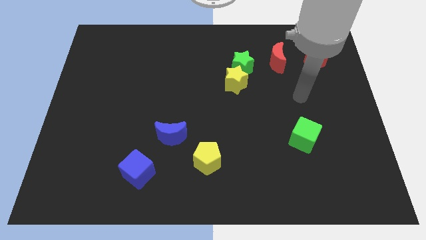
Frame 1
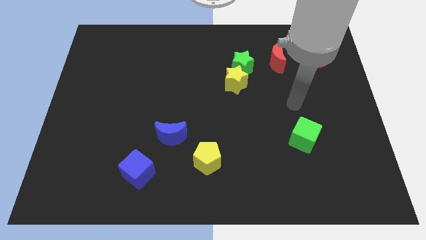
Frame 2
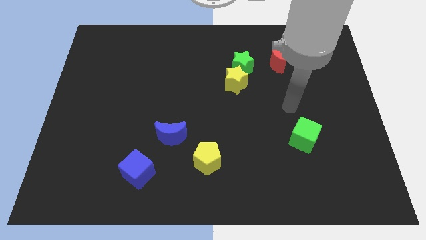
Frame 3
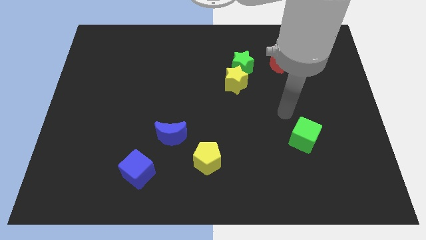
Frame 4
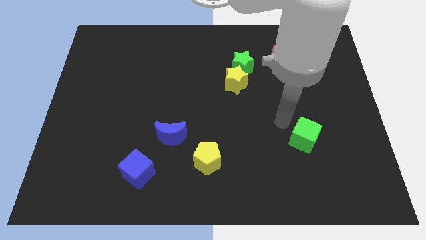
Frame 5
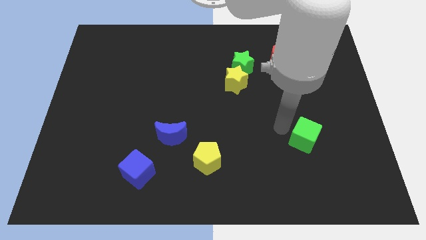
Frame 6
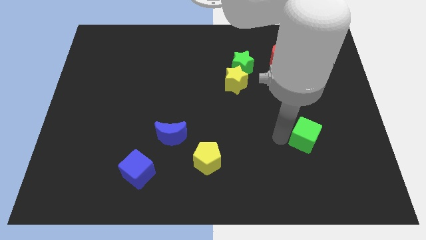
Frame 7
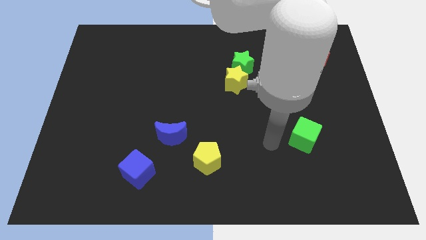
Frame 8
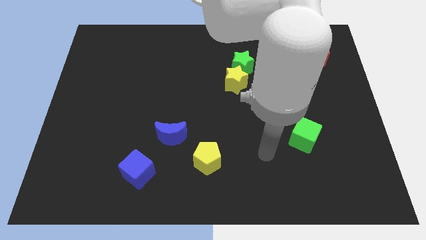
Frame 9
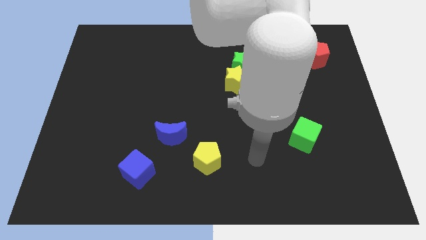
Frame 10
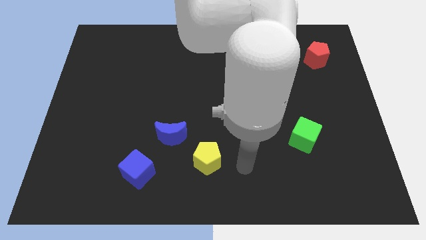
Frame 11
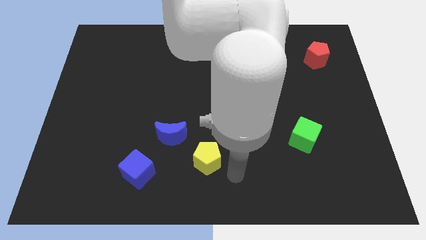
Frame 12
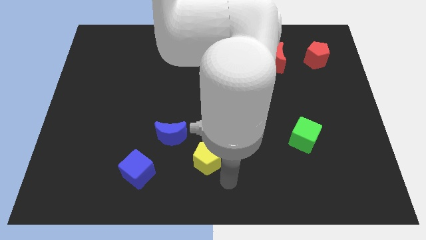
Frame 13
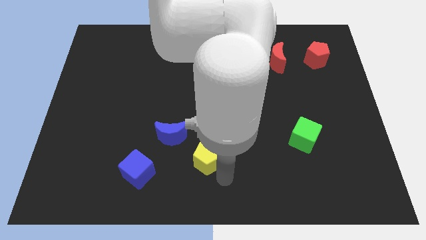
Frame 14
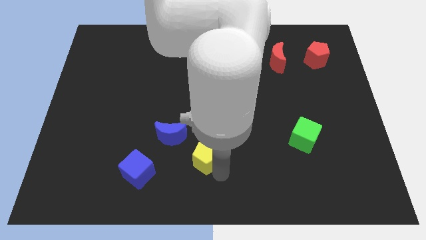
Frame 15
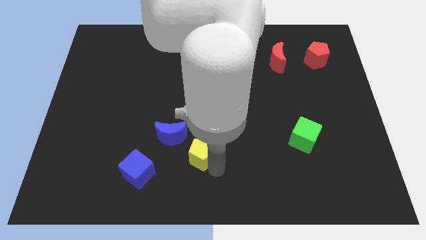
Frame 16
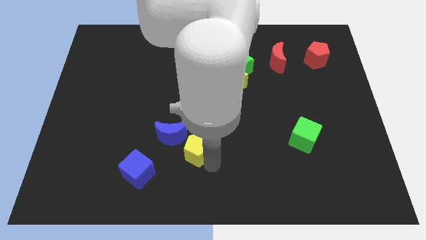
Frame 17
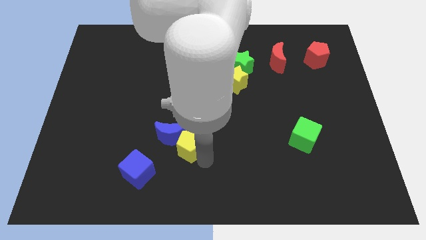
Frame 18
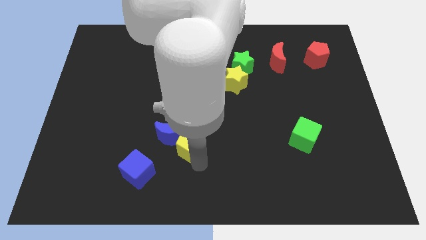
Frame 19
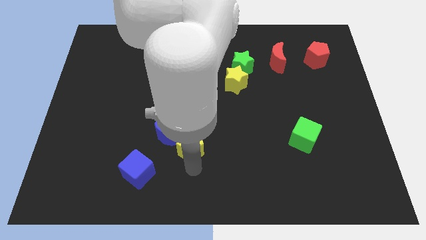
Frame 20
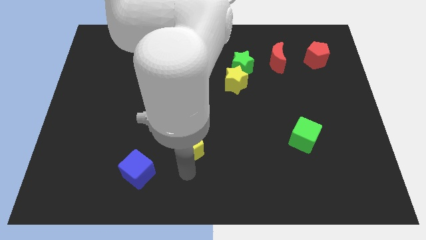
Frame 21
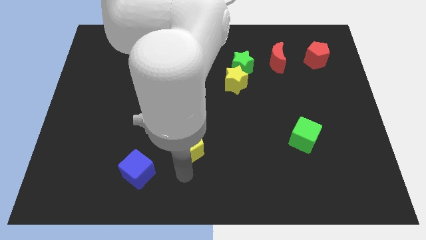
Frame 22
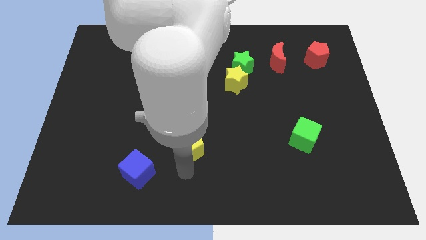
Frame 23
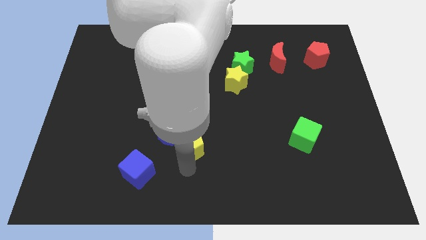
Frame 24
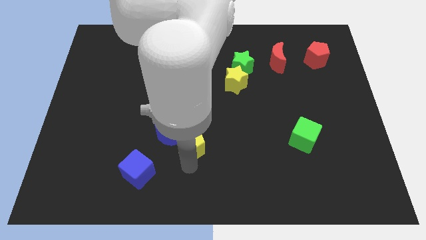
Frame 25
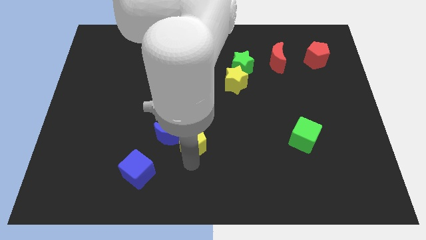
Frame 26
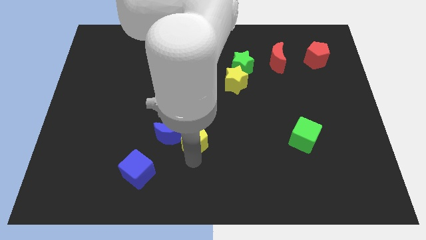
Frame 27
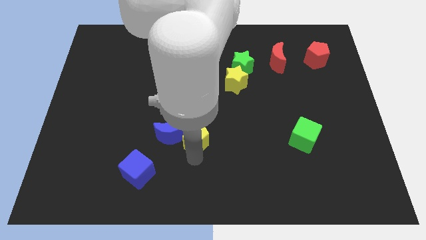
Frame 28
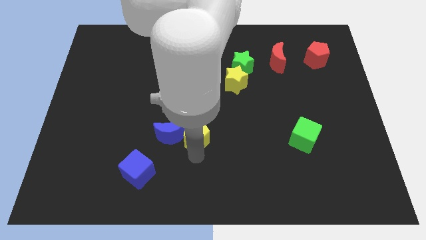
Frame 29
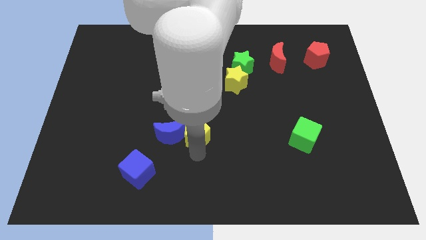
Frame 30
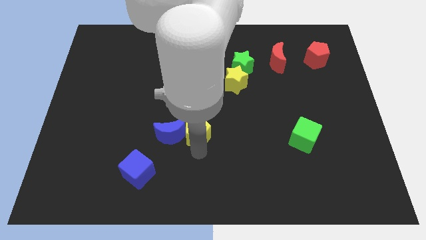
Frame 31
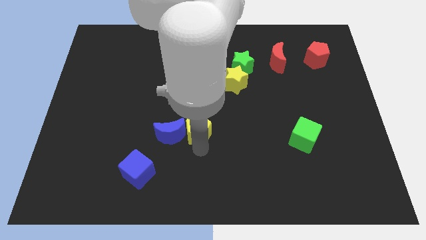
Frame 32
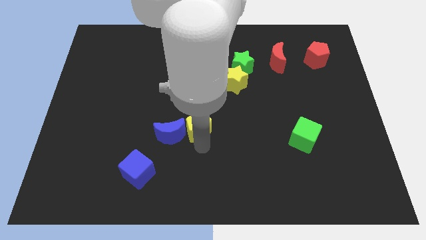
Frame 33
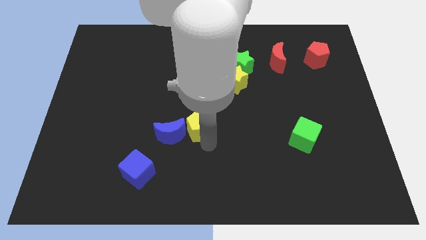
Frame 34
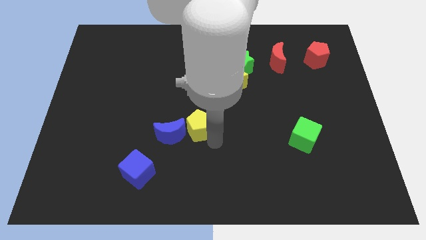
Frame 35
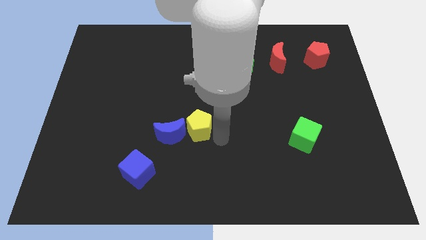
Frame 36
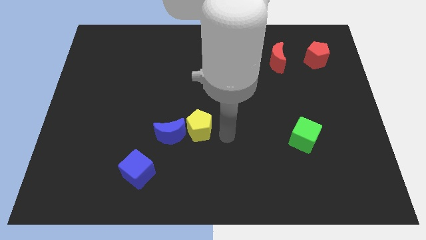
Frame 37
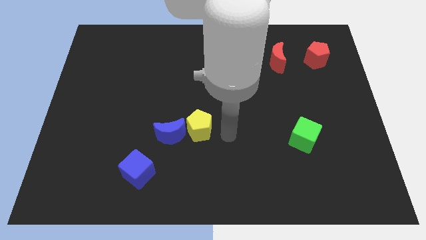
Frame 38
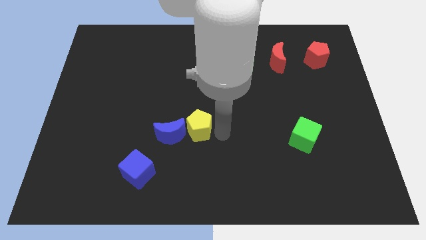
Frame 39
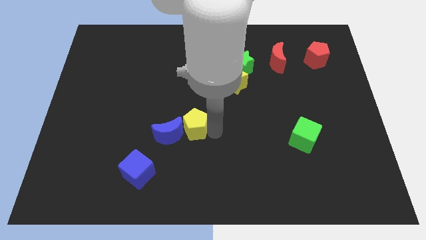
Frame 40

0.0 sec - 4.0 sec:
slightly slide the yellow pentagon up and then to the left

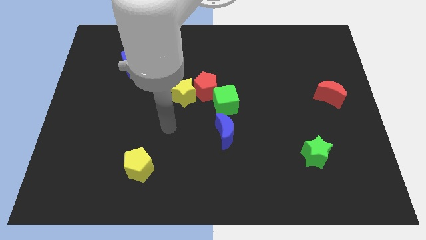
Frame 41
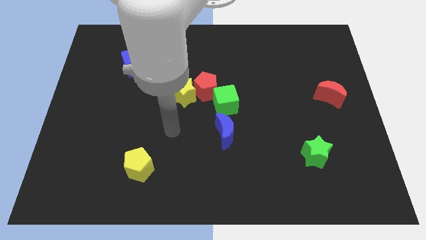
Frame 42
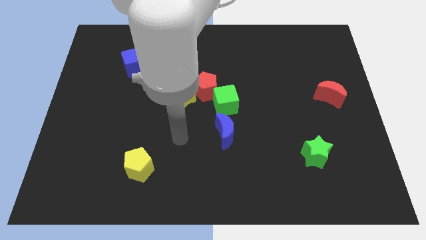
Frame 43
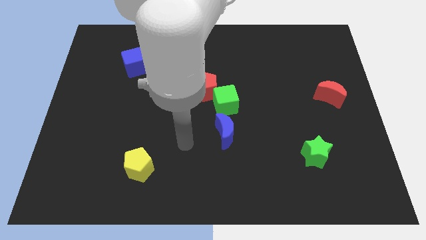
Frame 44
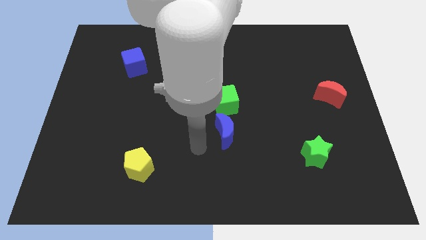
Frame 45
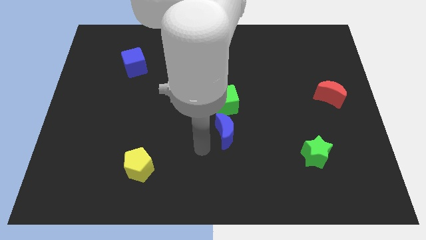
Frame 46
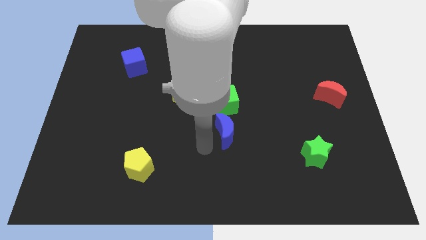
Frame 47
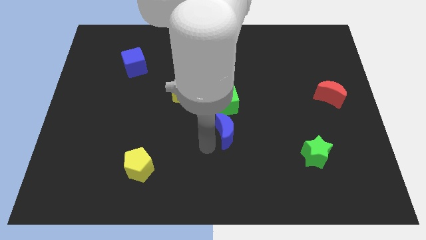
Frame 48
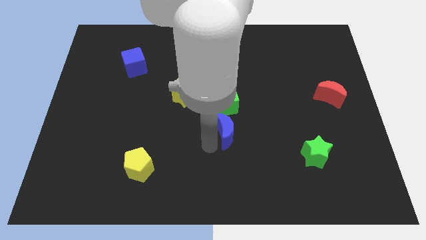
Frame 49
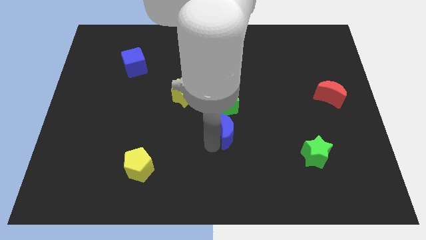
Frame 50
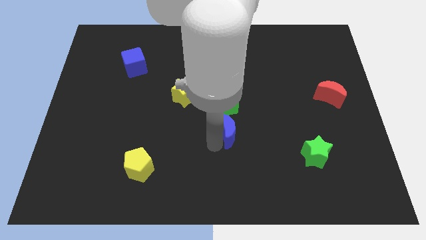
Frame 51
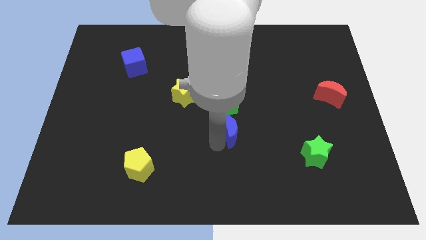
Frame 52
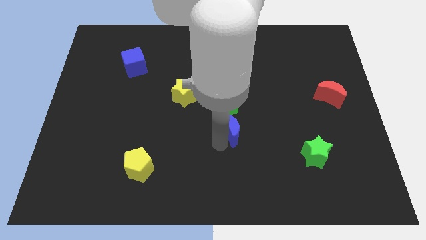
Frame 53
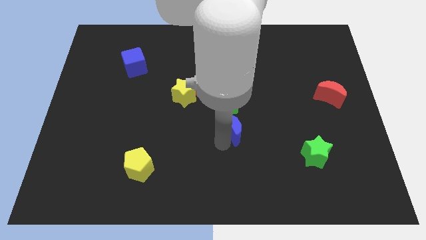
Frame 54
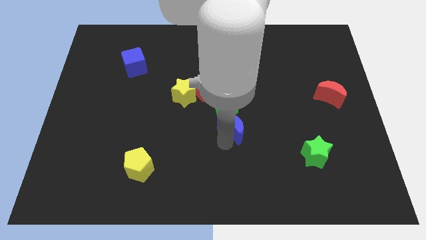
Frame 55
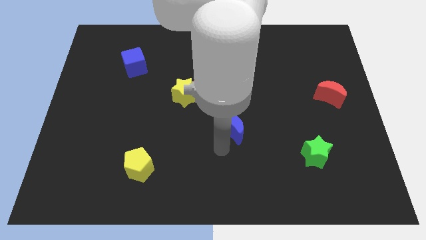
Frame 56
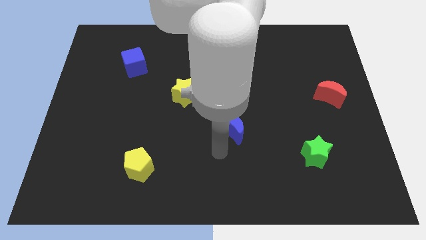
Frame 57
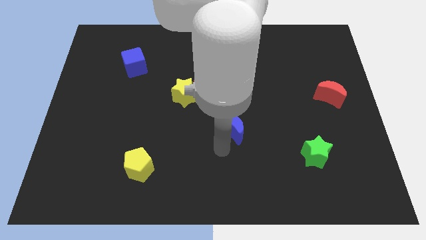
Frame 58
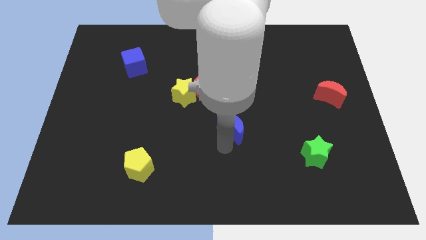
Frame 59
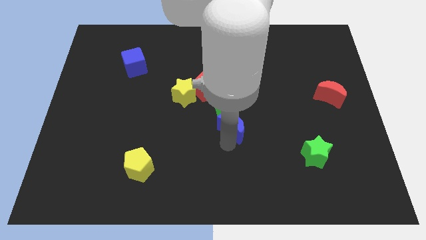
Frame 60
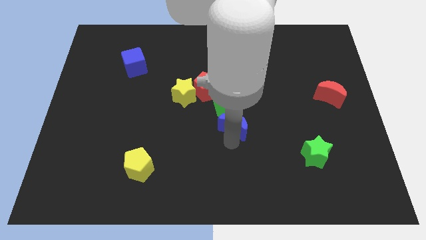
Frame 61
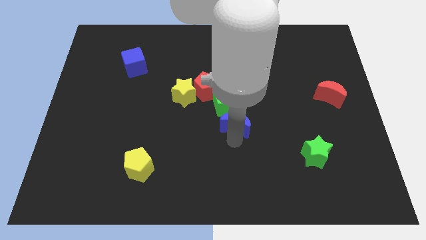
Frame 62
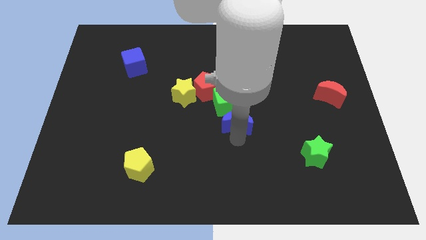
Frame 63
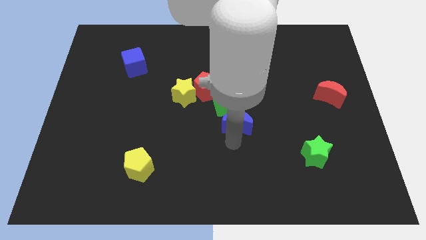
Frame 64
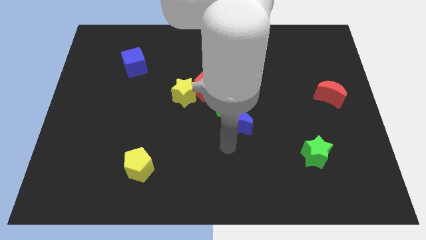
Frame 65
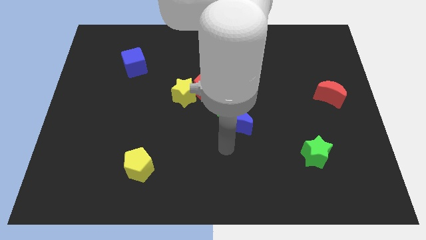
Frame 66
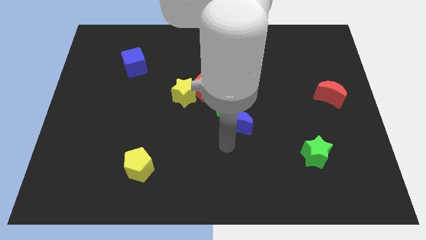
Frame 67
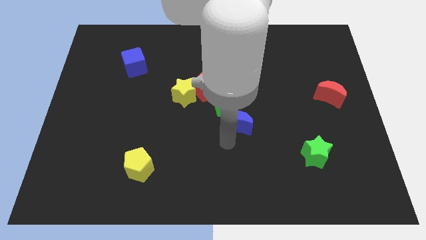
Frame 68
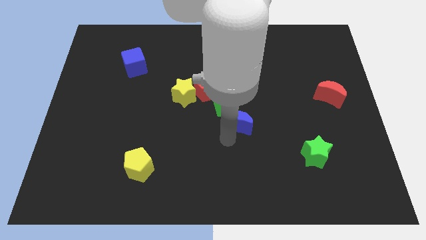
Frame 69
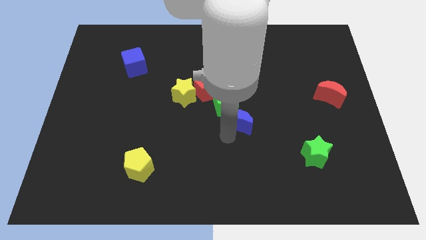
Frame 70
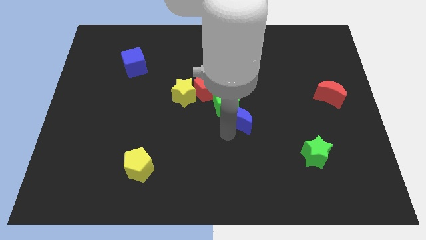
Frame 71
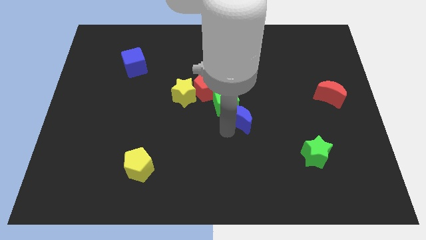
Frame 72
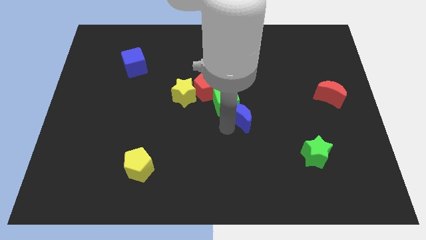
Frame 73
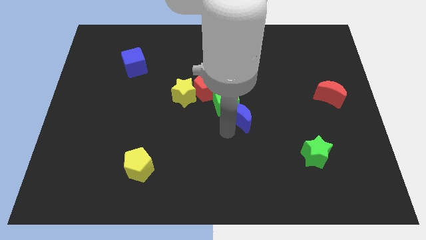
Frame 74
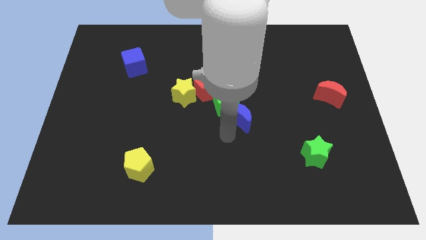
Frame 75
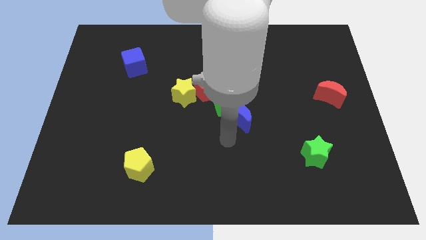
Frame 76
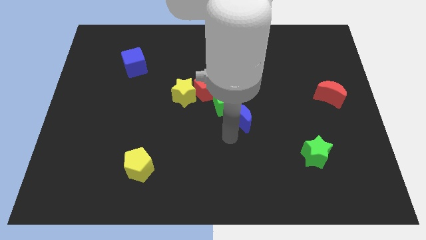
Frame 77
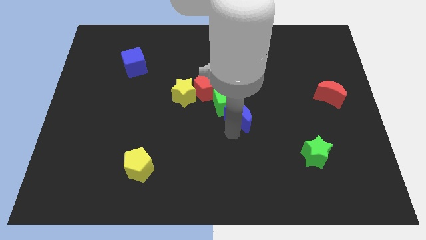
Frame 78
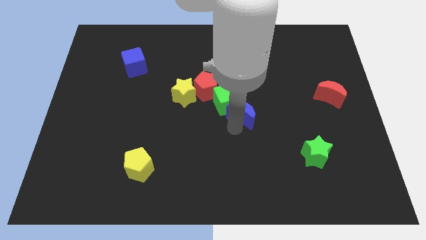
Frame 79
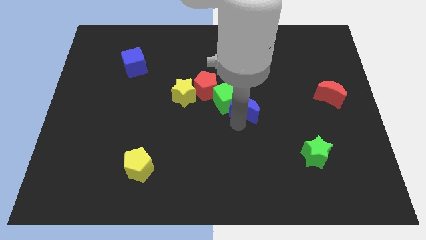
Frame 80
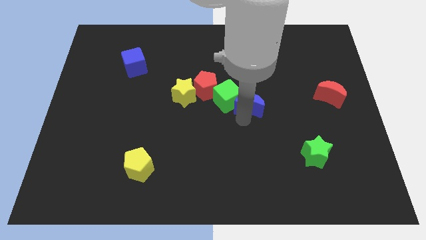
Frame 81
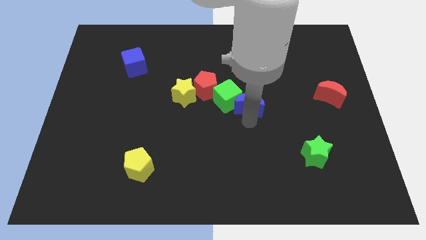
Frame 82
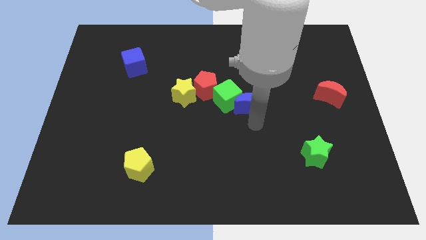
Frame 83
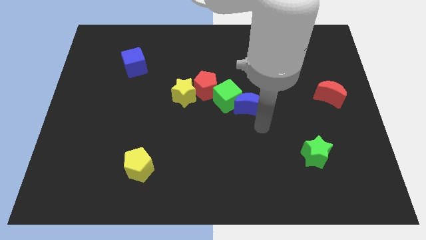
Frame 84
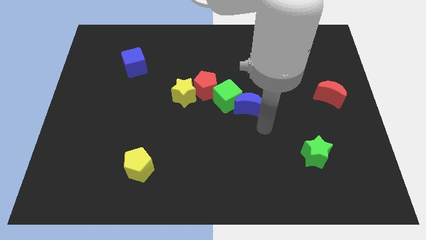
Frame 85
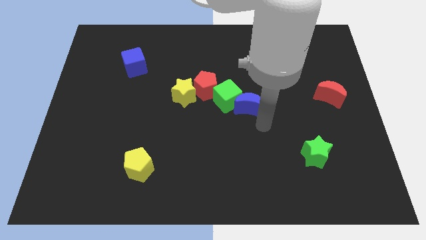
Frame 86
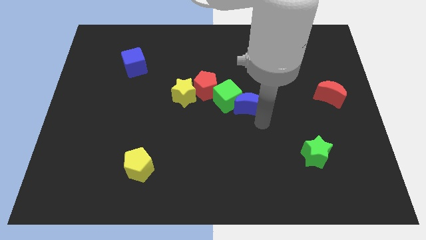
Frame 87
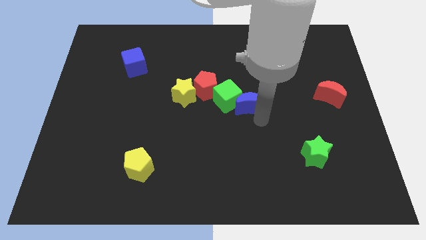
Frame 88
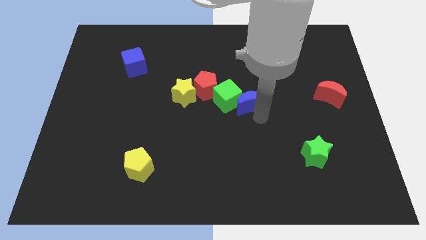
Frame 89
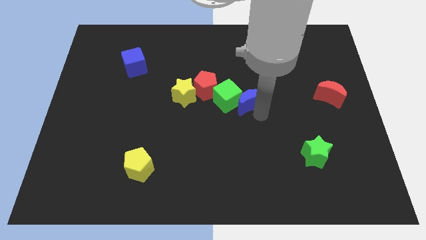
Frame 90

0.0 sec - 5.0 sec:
move the blue moon somewhat up
